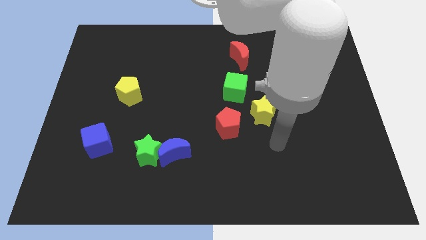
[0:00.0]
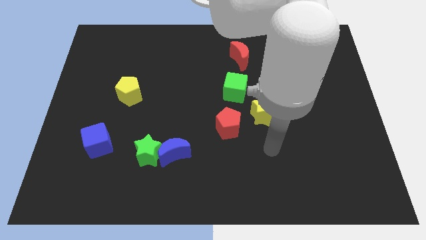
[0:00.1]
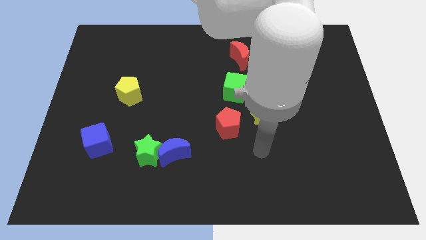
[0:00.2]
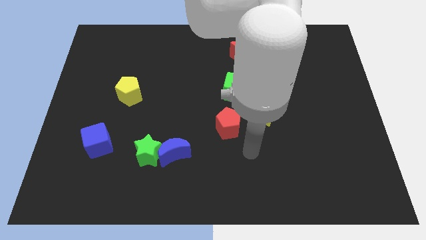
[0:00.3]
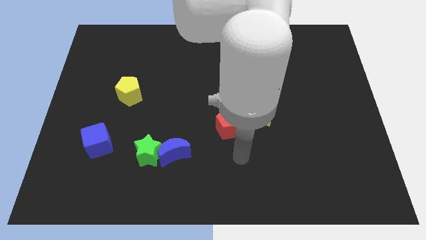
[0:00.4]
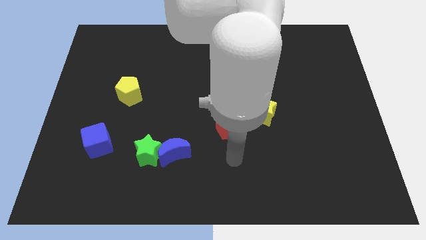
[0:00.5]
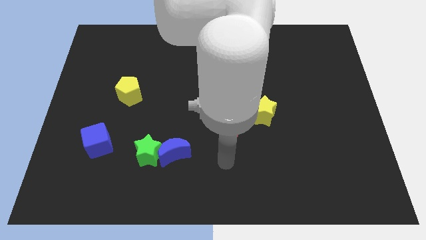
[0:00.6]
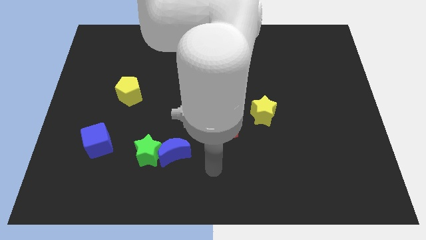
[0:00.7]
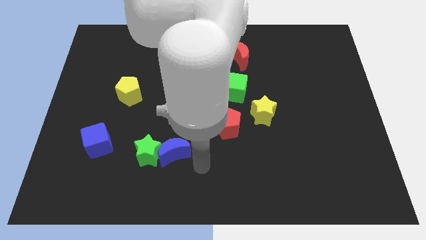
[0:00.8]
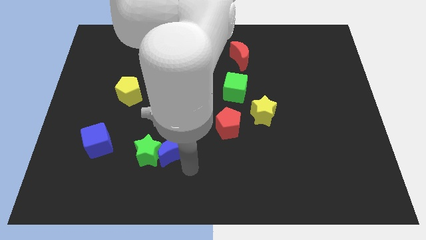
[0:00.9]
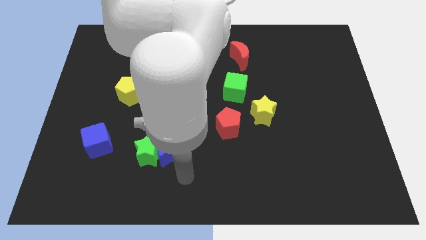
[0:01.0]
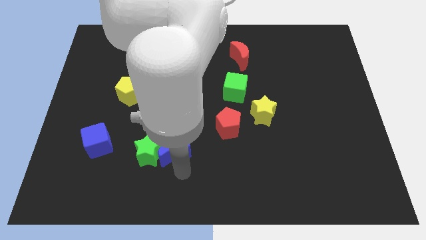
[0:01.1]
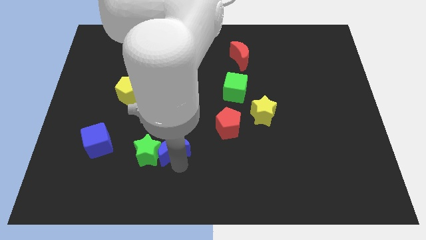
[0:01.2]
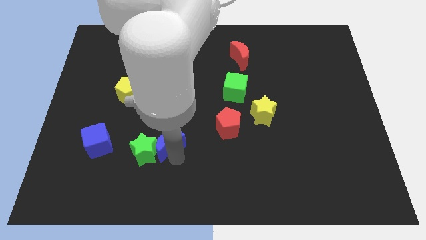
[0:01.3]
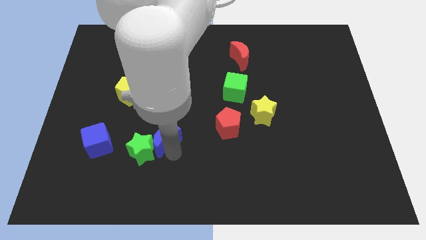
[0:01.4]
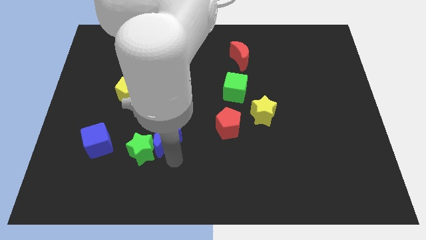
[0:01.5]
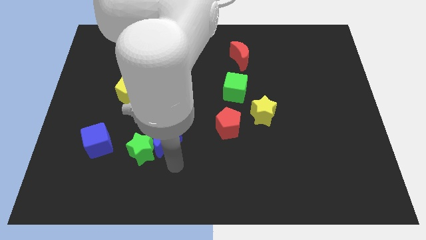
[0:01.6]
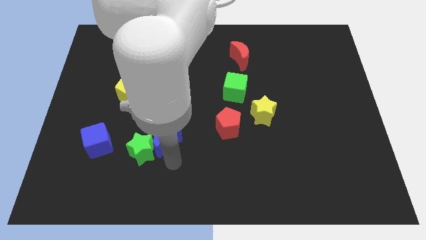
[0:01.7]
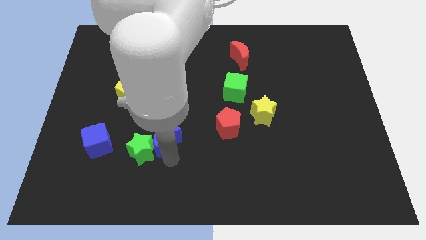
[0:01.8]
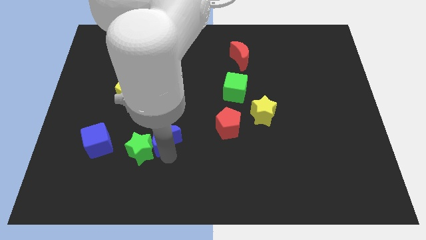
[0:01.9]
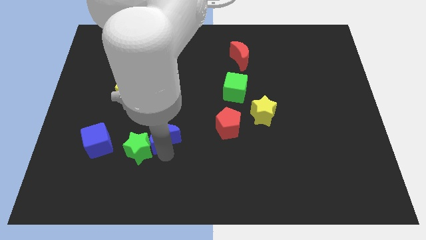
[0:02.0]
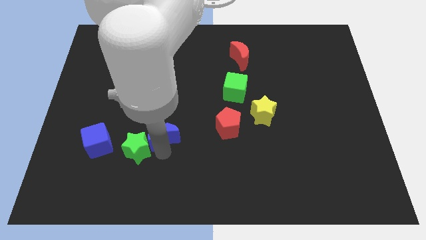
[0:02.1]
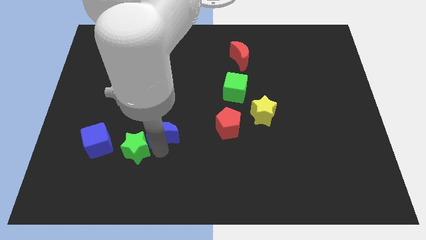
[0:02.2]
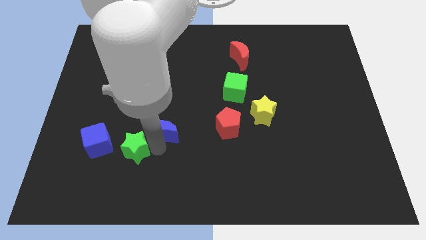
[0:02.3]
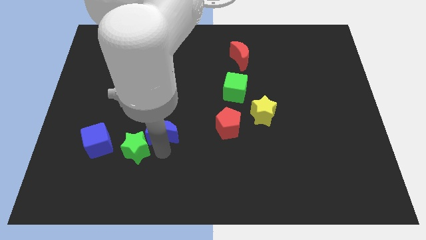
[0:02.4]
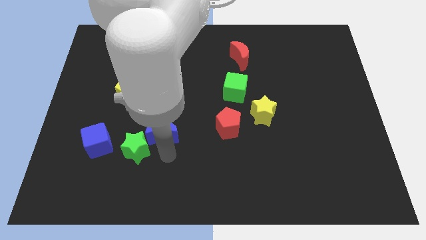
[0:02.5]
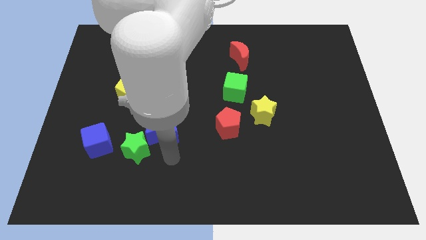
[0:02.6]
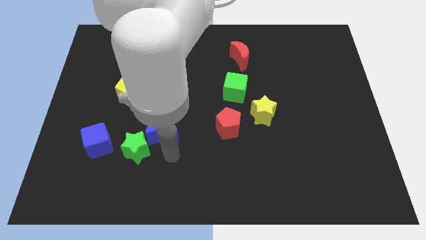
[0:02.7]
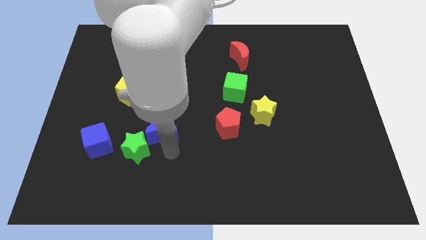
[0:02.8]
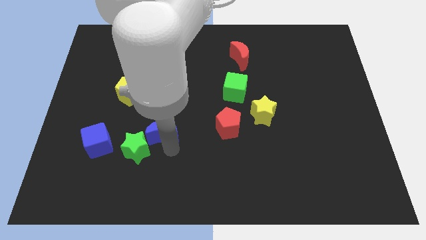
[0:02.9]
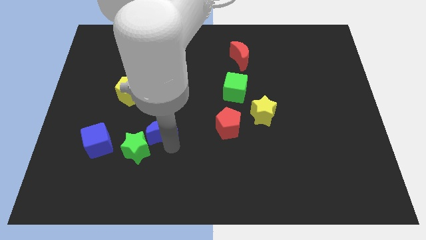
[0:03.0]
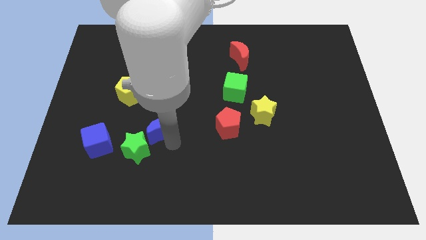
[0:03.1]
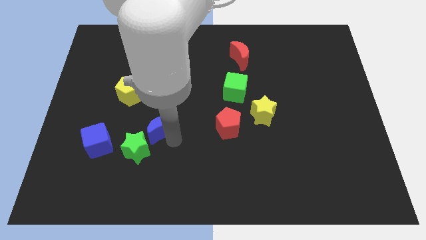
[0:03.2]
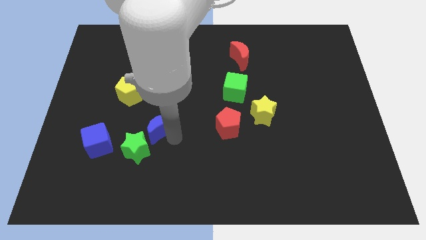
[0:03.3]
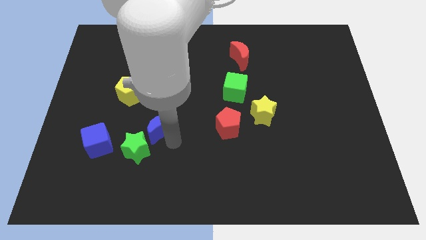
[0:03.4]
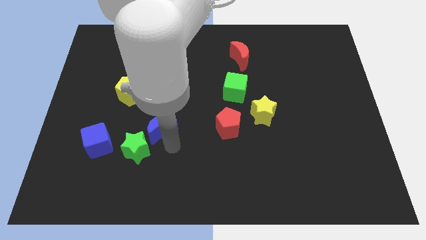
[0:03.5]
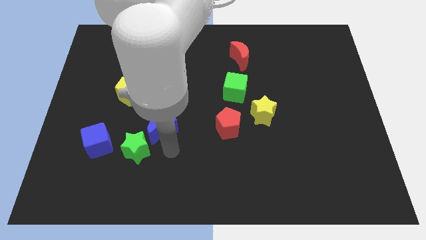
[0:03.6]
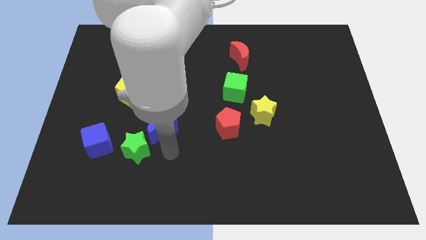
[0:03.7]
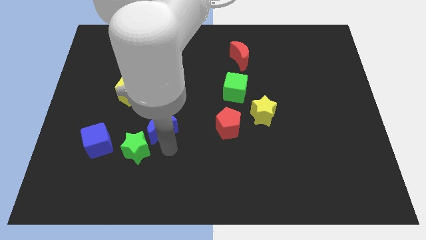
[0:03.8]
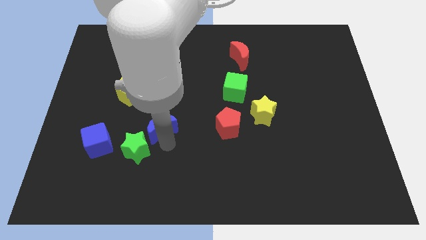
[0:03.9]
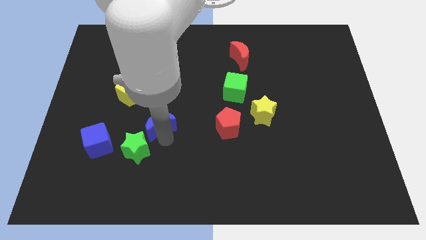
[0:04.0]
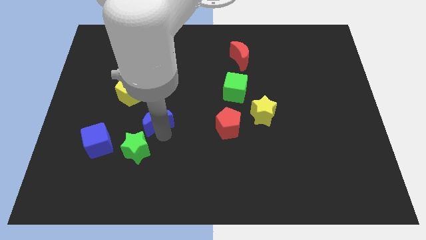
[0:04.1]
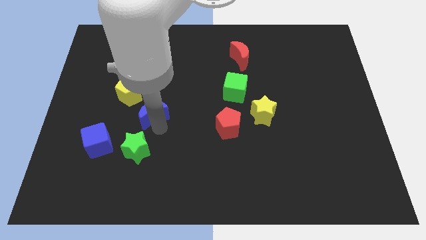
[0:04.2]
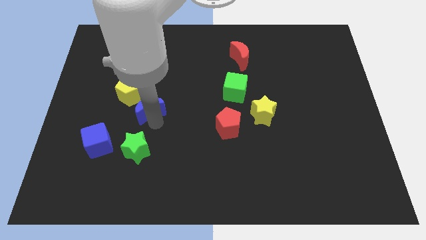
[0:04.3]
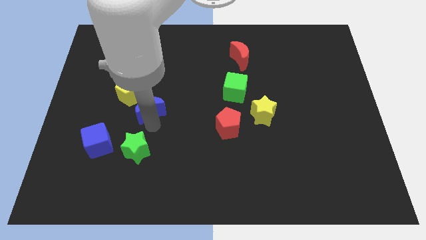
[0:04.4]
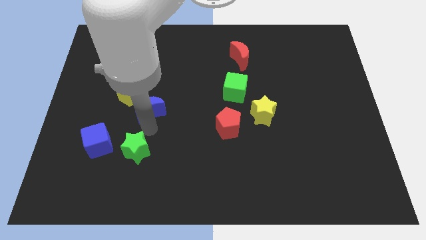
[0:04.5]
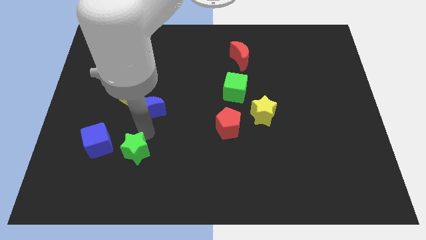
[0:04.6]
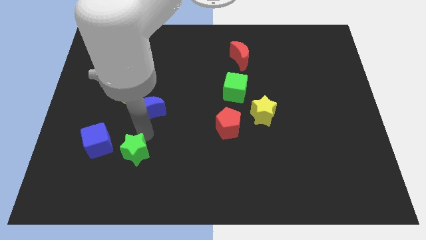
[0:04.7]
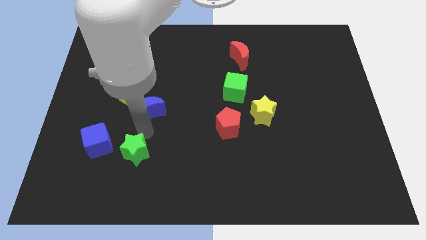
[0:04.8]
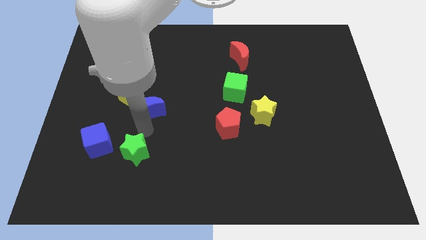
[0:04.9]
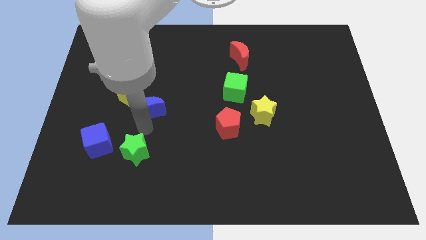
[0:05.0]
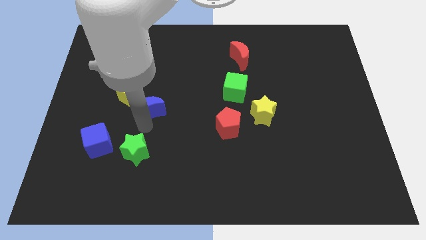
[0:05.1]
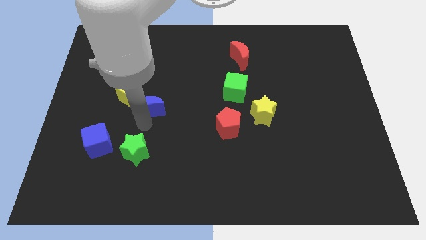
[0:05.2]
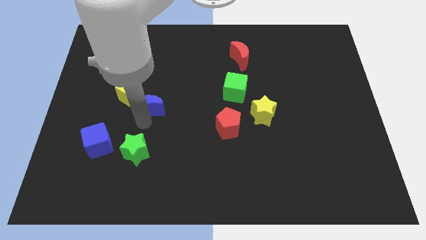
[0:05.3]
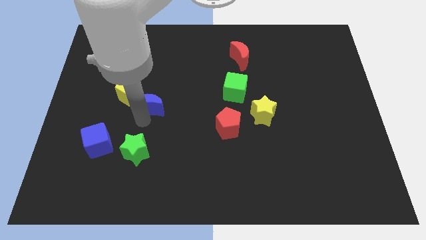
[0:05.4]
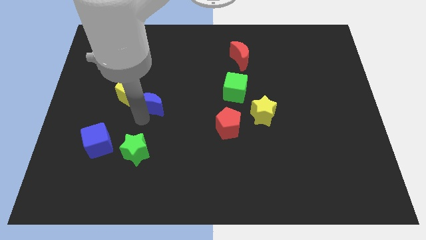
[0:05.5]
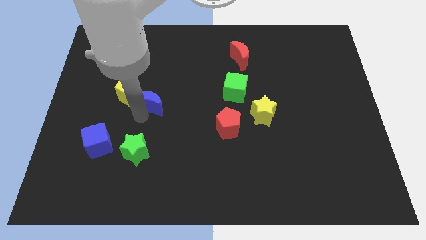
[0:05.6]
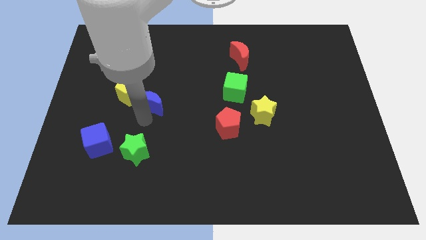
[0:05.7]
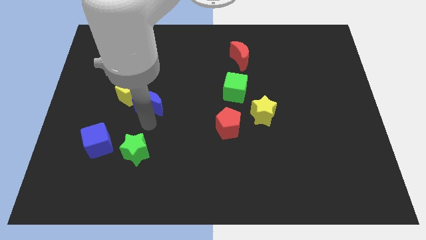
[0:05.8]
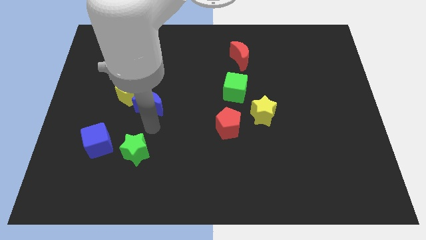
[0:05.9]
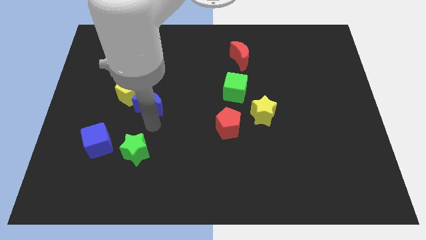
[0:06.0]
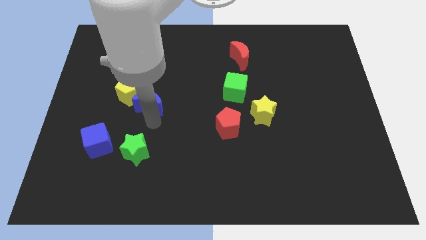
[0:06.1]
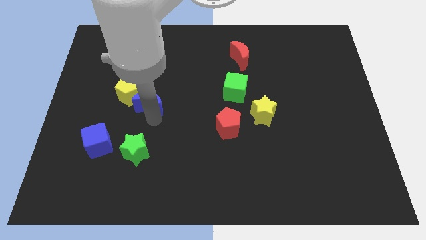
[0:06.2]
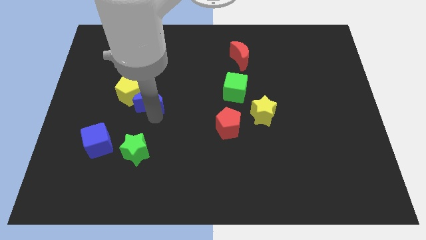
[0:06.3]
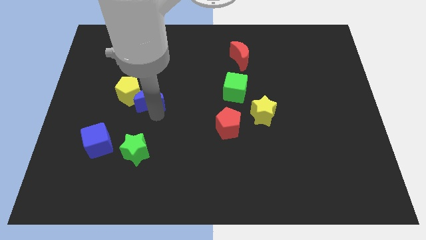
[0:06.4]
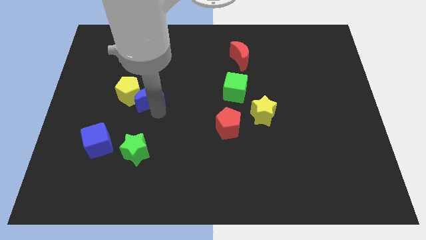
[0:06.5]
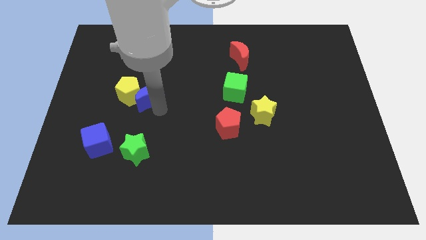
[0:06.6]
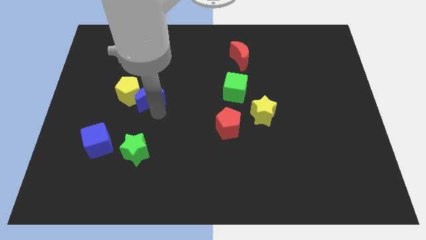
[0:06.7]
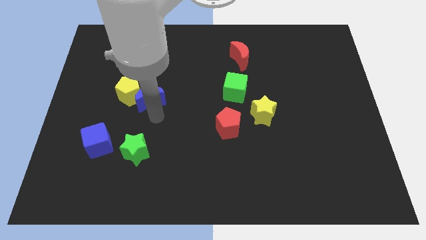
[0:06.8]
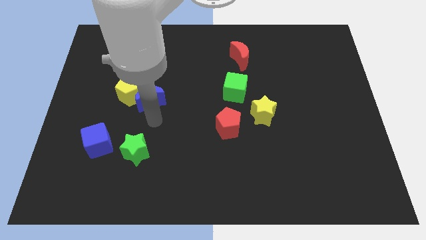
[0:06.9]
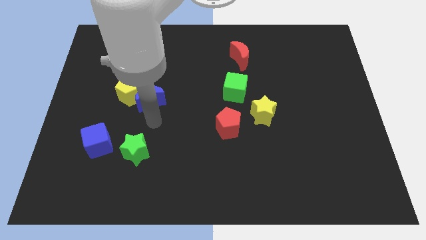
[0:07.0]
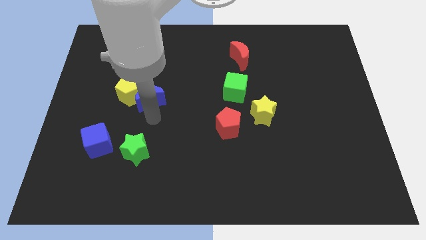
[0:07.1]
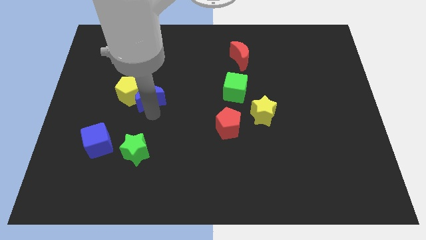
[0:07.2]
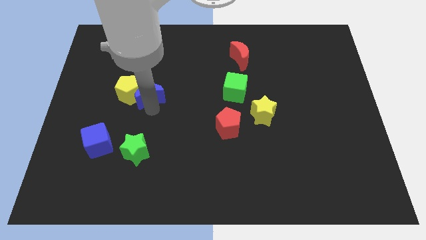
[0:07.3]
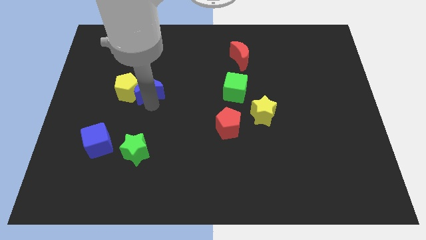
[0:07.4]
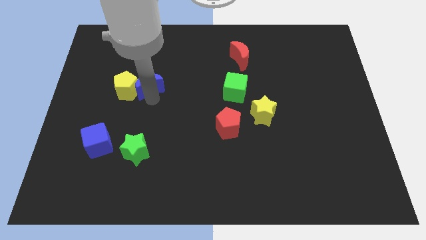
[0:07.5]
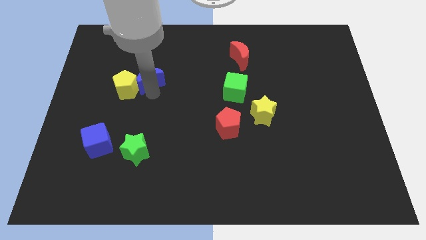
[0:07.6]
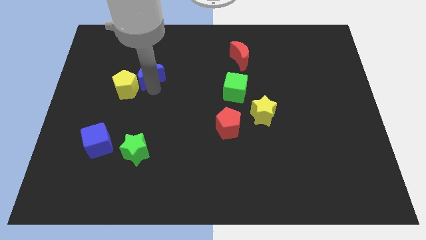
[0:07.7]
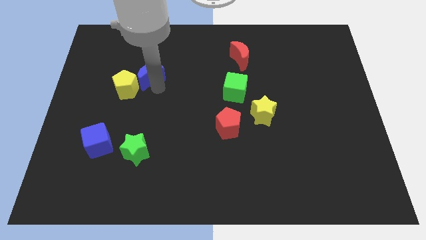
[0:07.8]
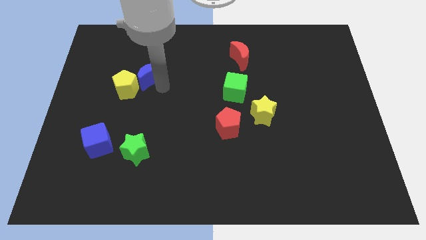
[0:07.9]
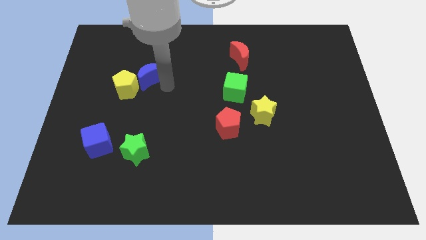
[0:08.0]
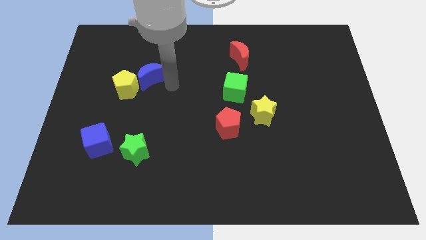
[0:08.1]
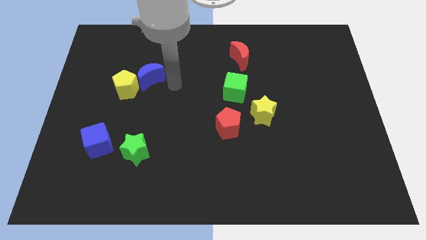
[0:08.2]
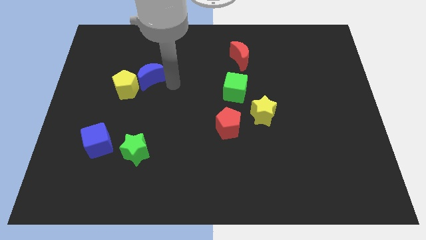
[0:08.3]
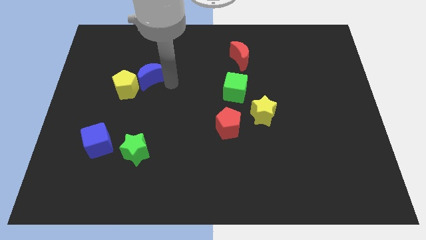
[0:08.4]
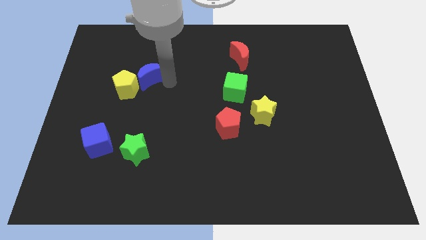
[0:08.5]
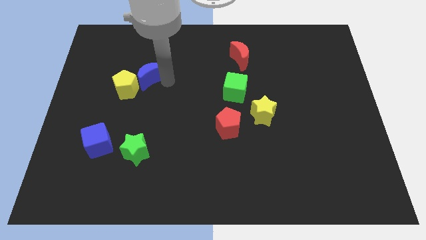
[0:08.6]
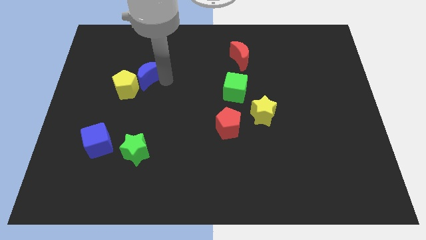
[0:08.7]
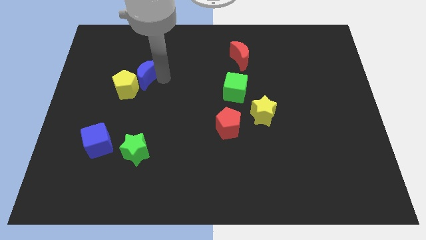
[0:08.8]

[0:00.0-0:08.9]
move the blue moon to the top side of the yellow pentagon
